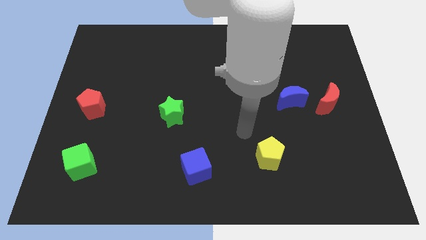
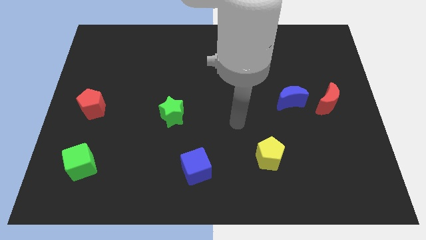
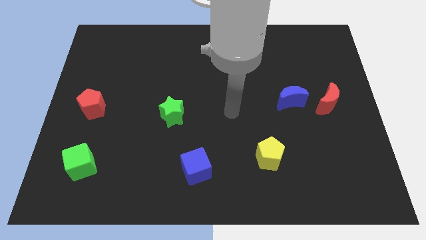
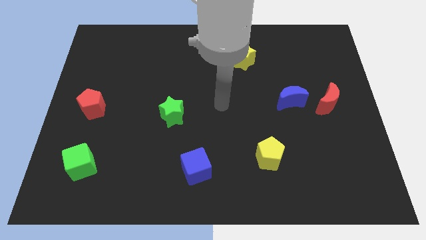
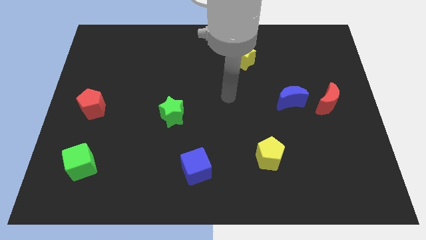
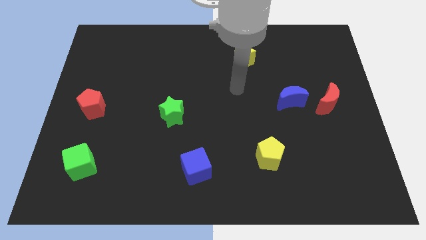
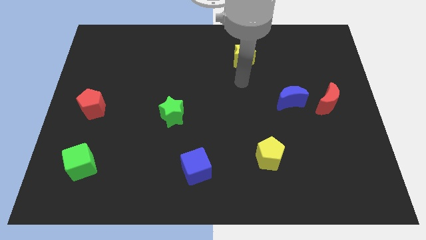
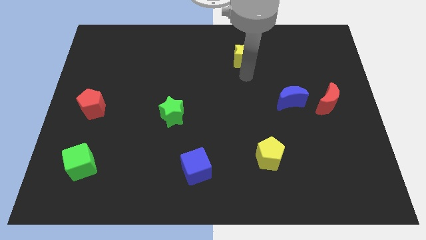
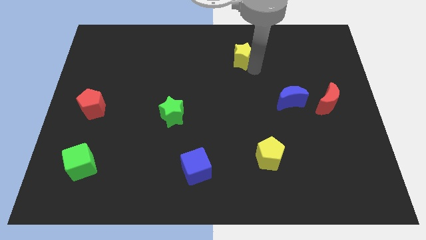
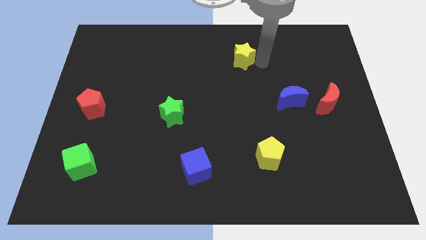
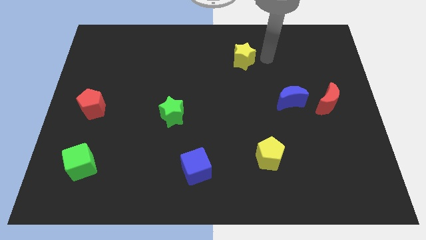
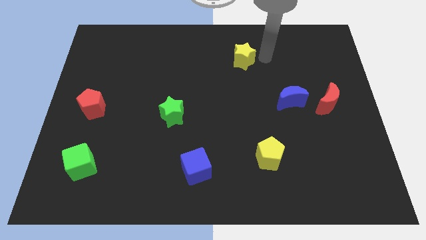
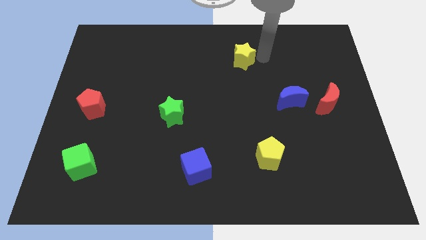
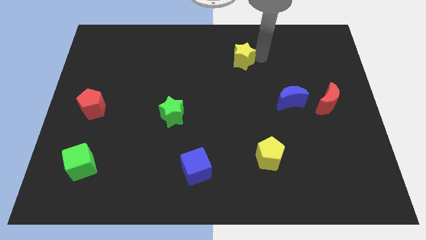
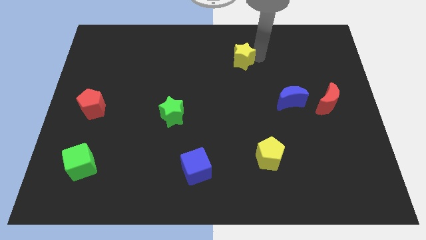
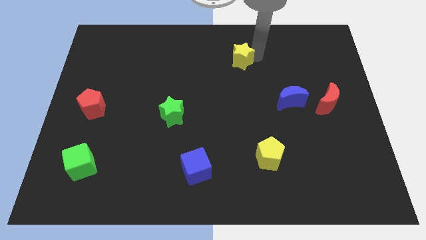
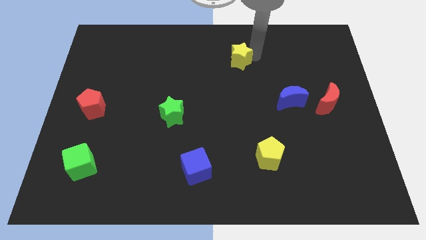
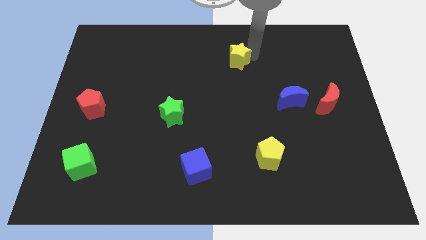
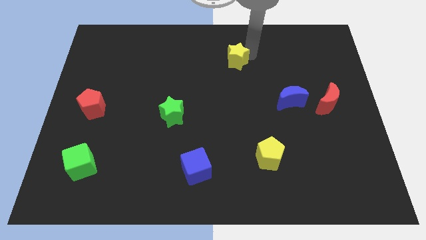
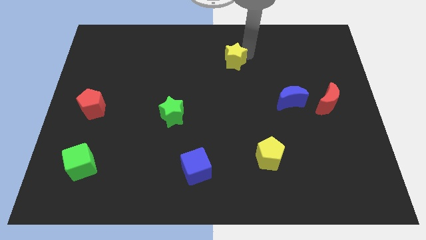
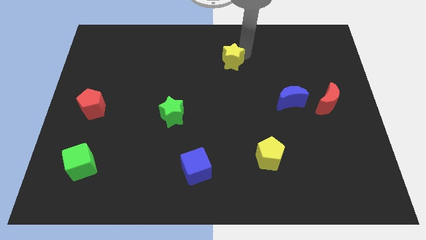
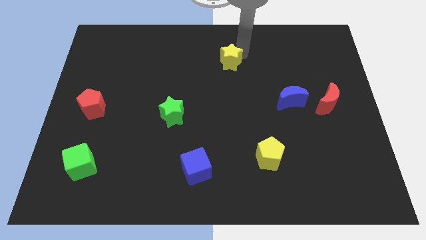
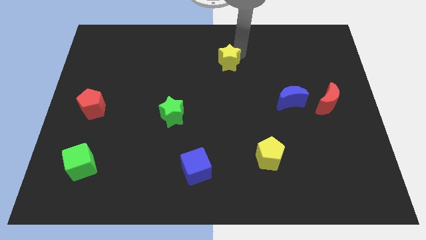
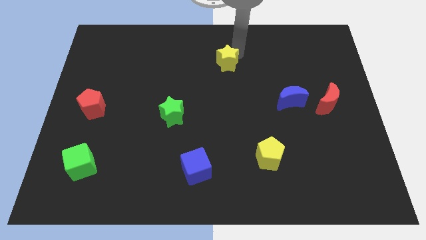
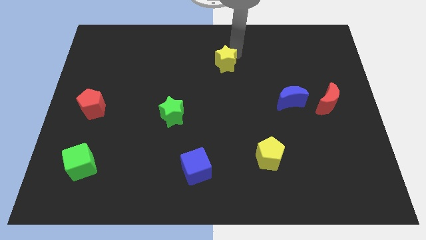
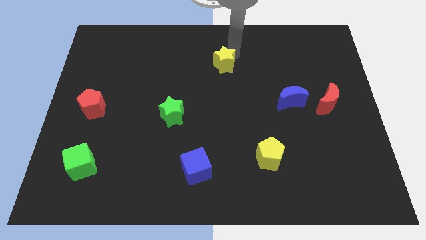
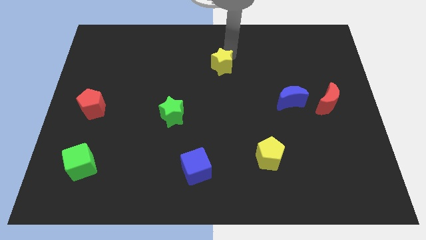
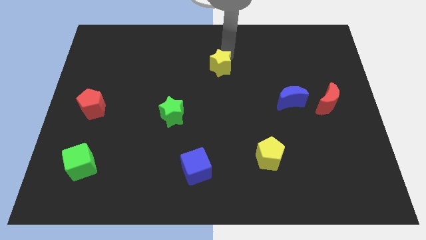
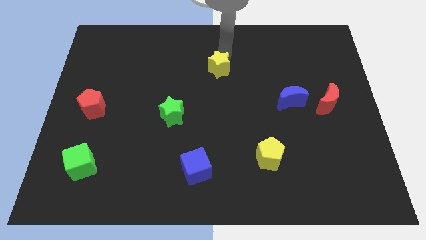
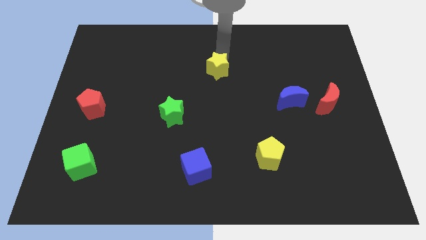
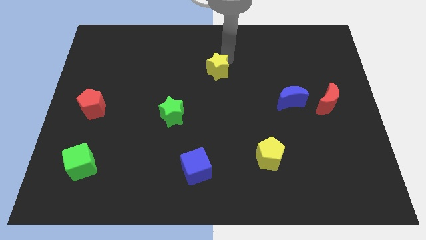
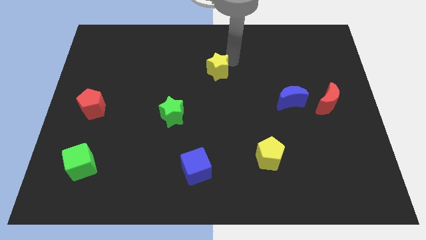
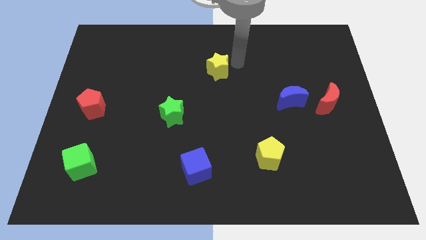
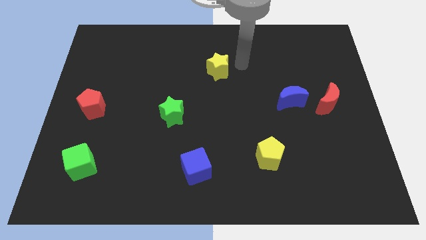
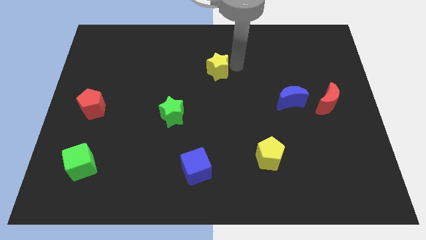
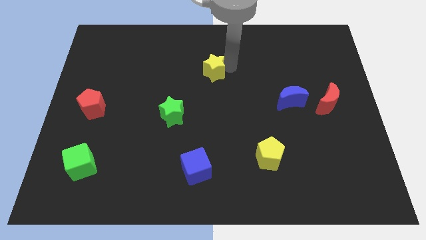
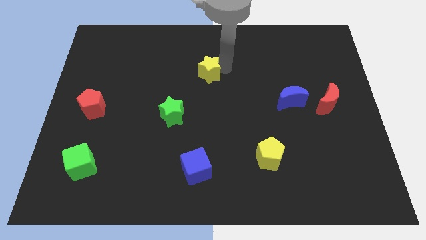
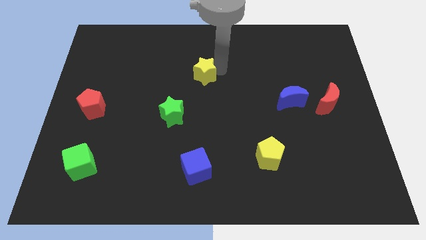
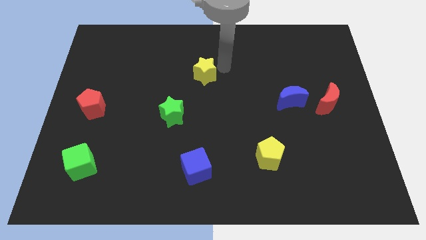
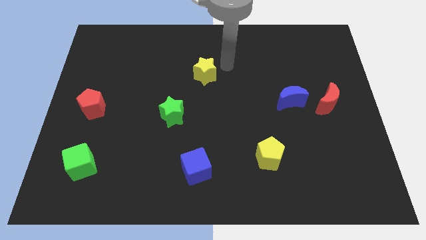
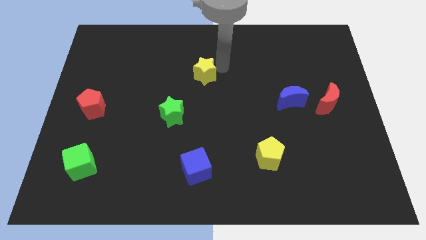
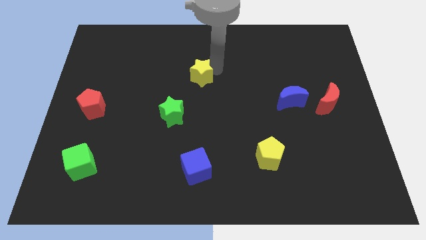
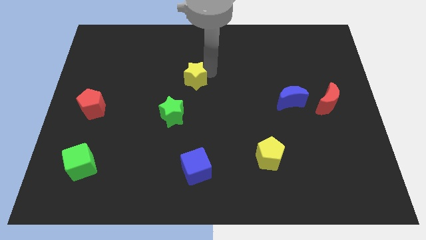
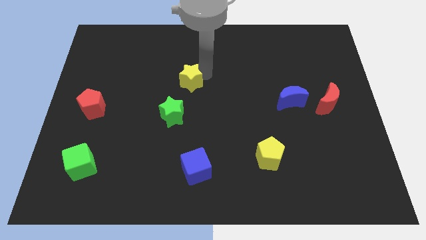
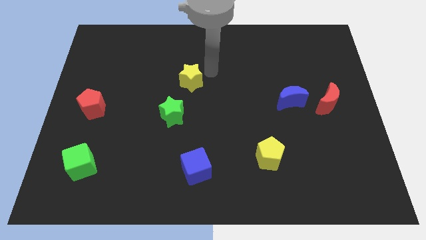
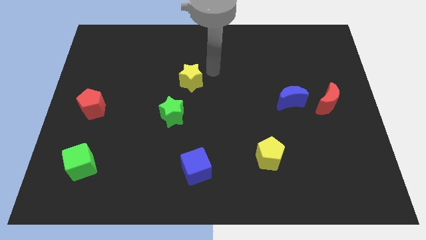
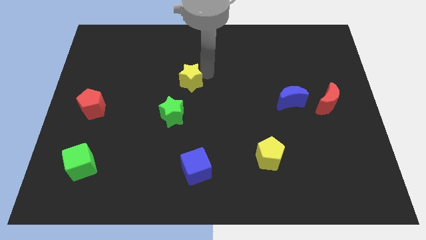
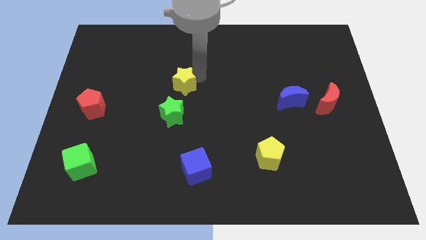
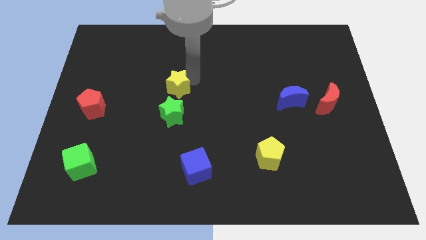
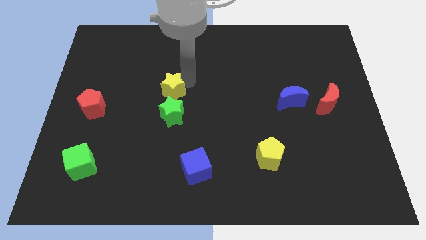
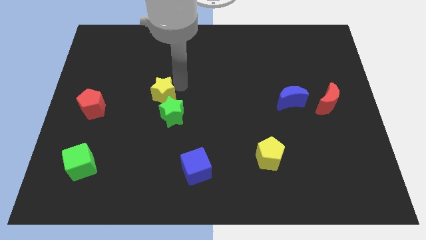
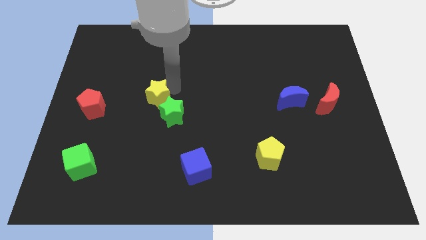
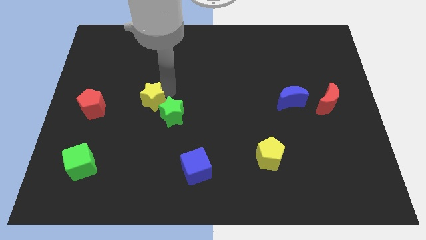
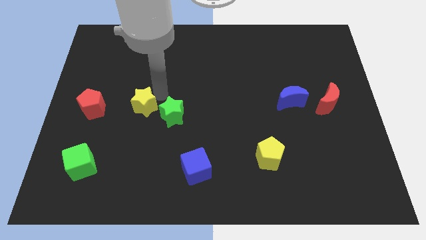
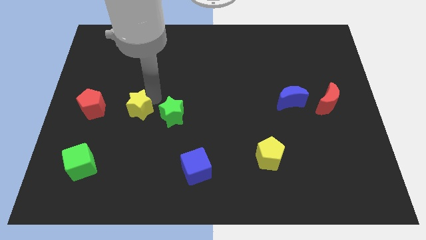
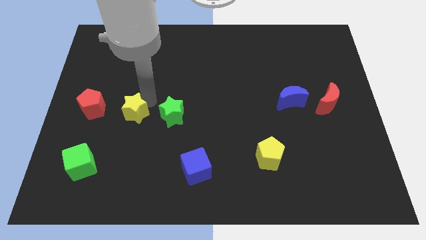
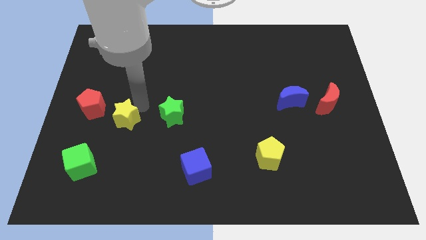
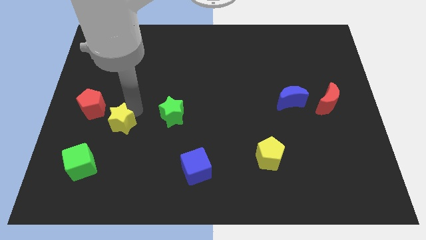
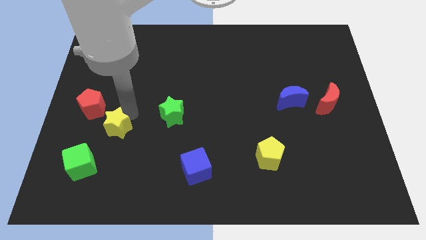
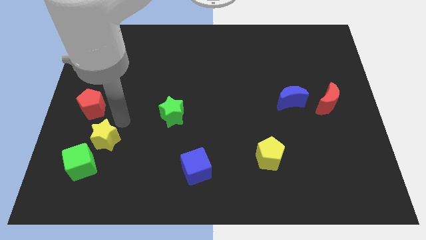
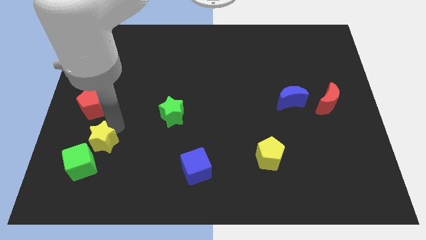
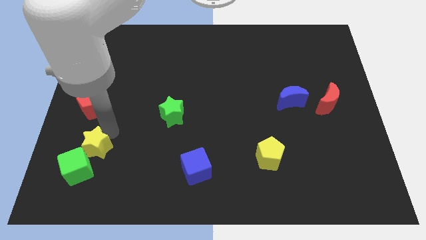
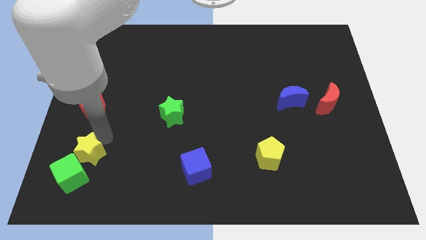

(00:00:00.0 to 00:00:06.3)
slide the yellow star close to the green cube

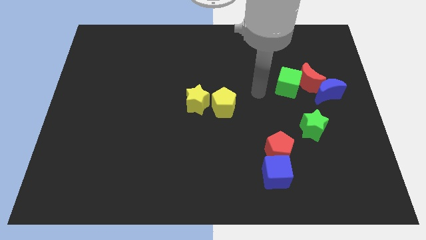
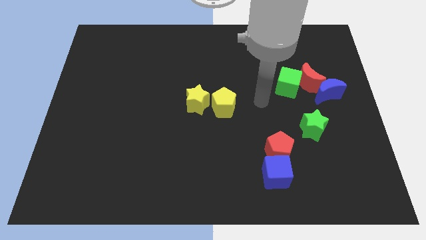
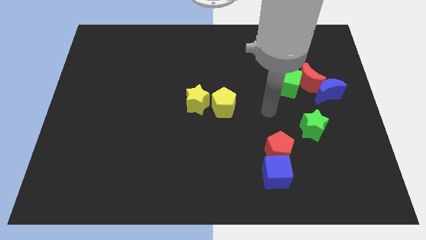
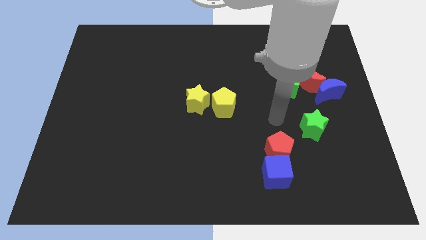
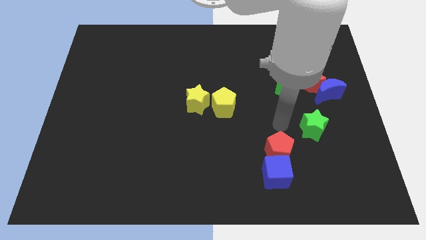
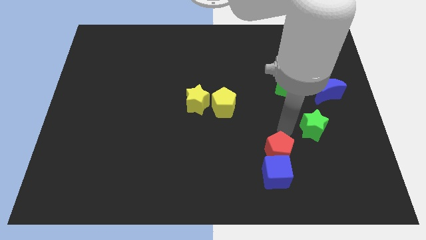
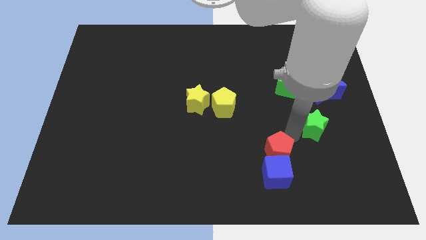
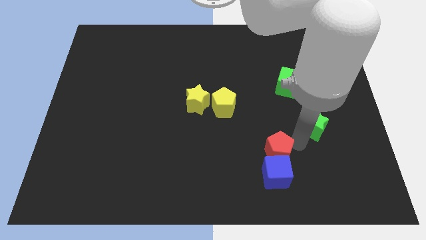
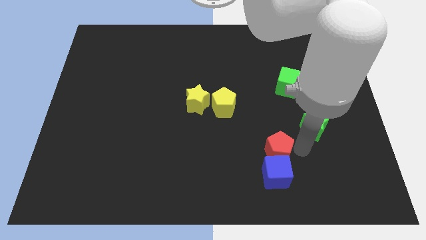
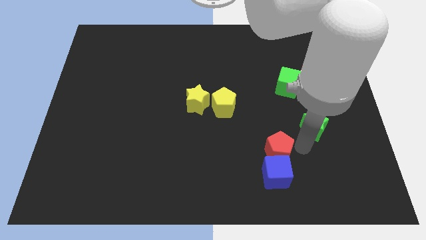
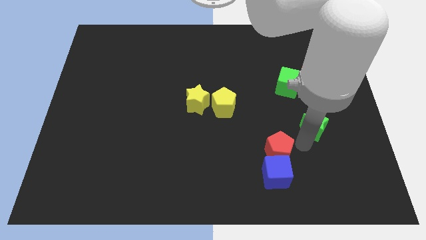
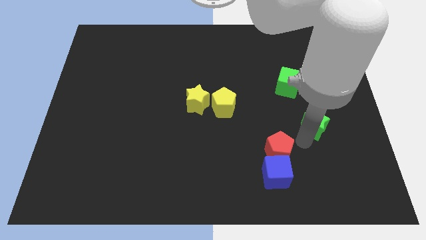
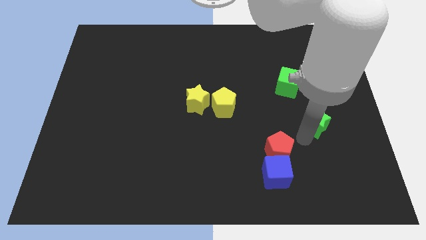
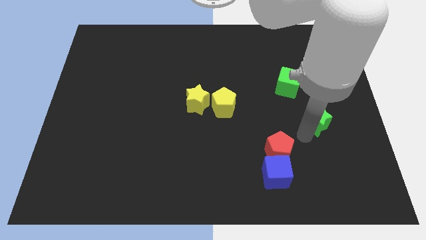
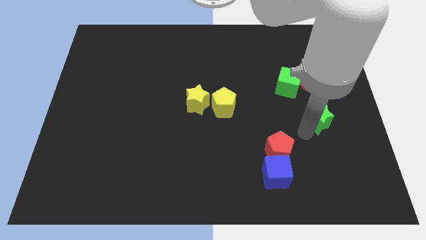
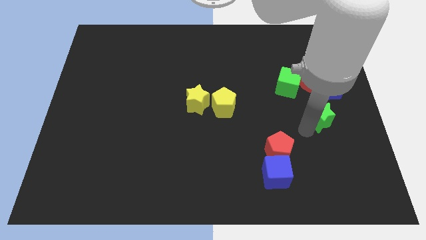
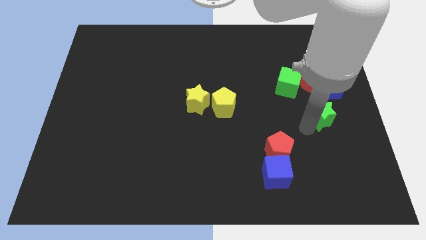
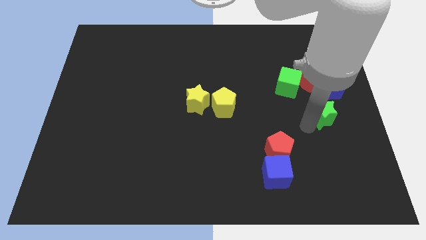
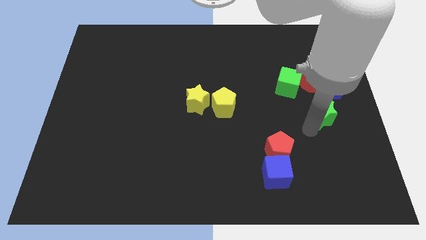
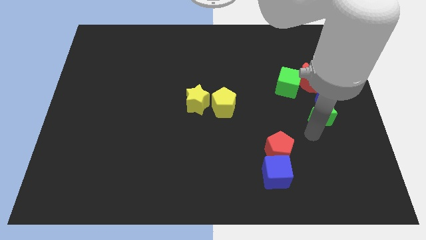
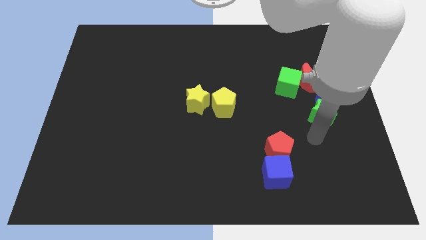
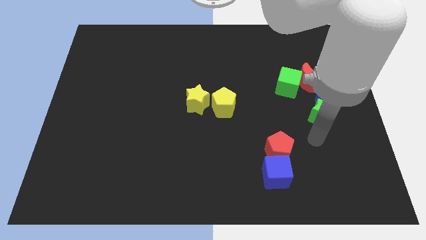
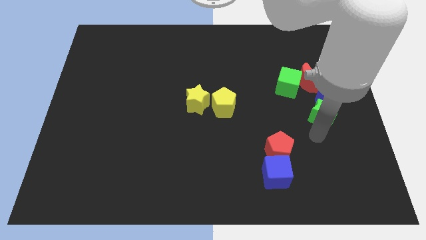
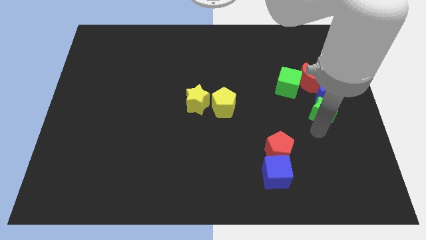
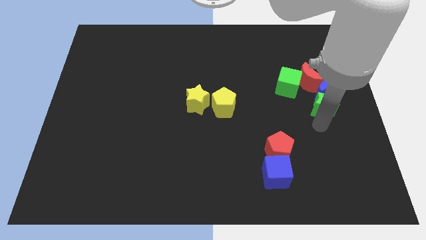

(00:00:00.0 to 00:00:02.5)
move the green star next to the blue moon
